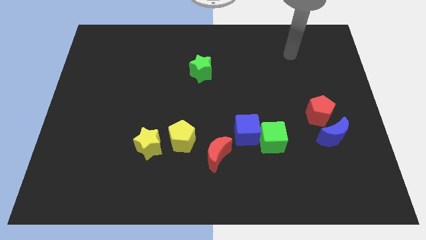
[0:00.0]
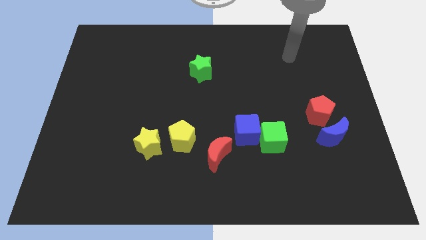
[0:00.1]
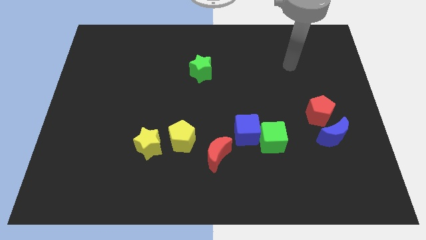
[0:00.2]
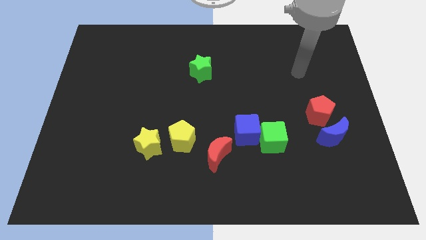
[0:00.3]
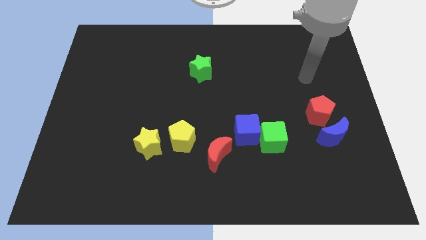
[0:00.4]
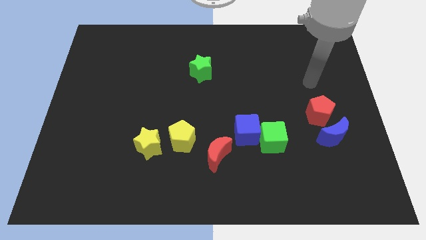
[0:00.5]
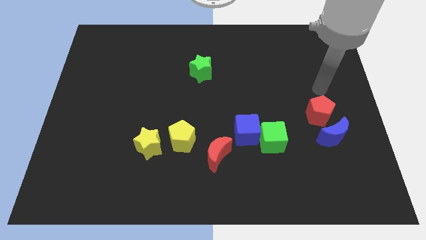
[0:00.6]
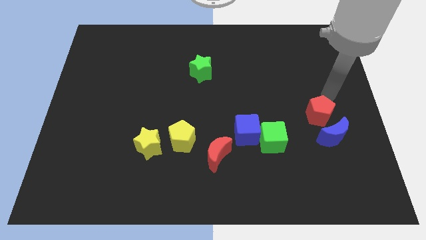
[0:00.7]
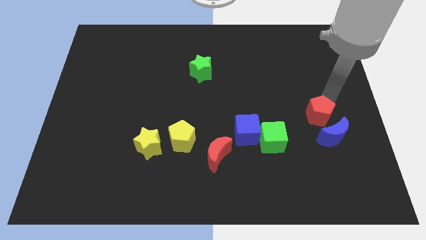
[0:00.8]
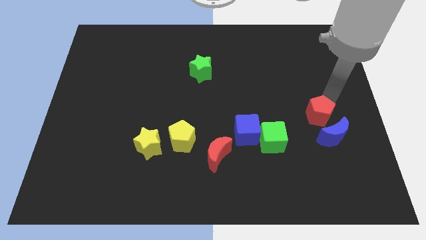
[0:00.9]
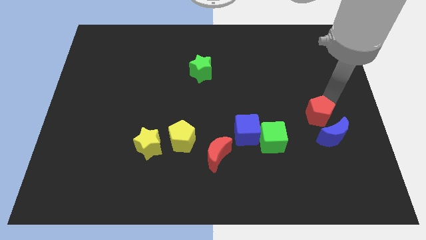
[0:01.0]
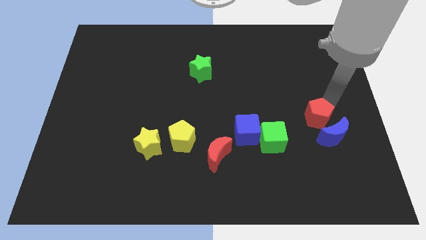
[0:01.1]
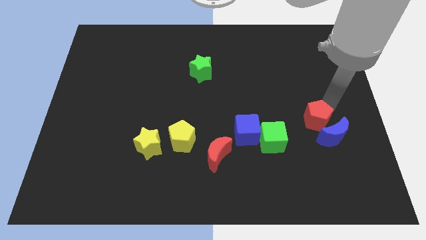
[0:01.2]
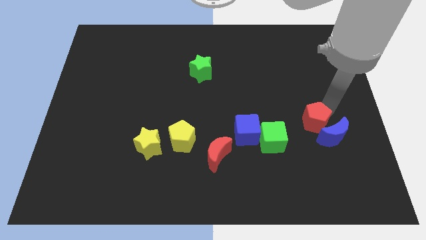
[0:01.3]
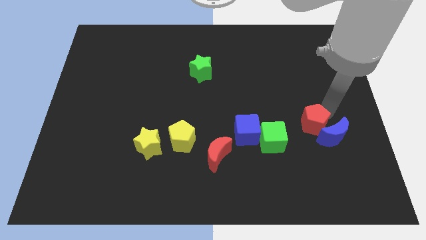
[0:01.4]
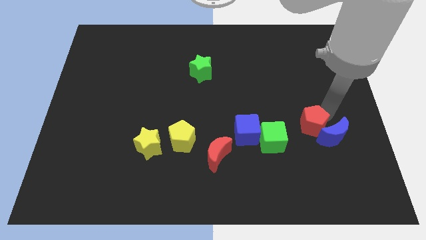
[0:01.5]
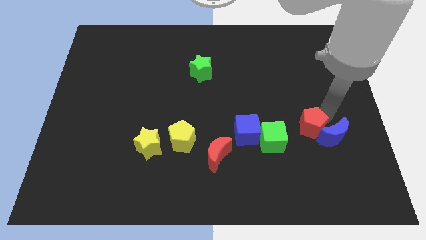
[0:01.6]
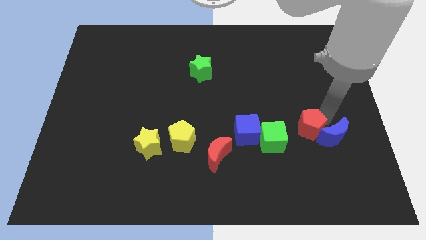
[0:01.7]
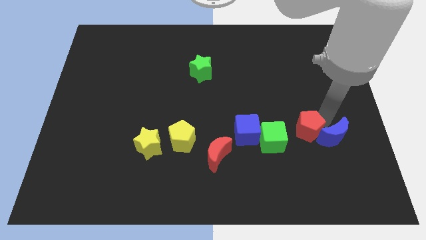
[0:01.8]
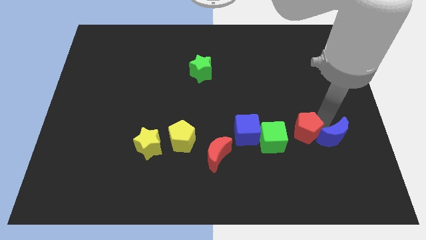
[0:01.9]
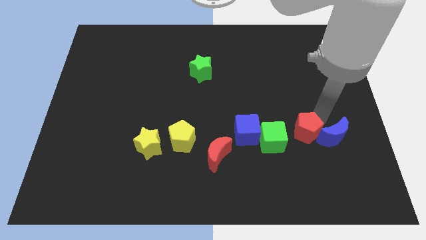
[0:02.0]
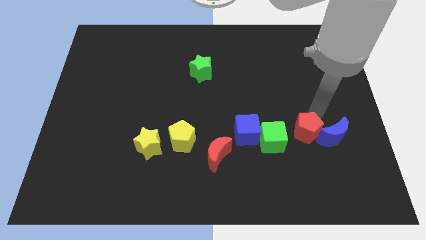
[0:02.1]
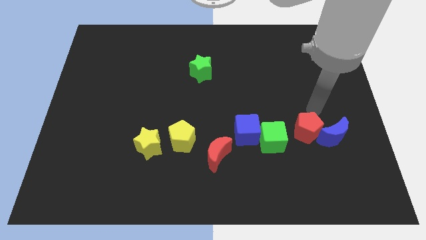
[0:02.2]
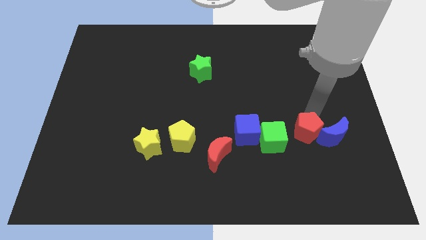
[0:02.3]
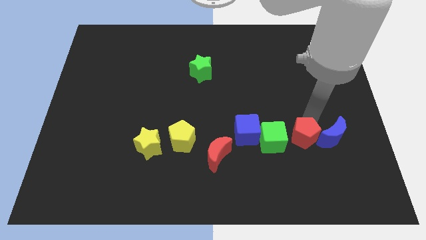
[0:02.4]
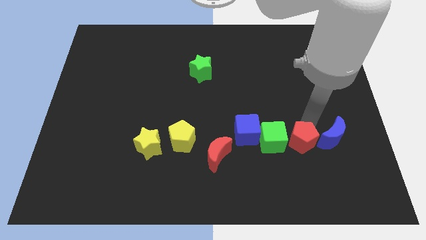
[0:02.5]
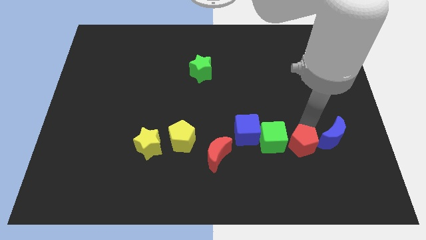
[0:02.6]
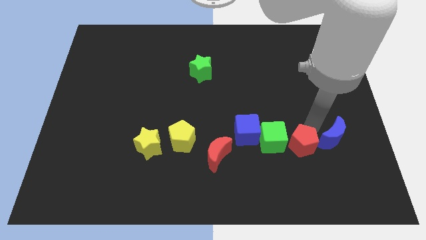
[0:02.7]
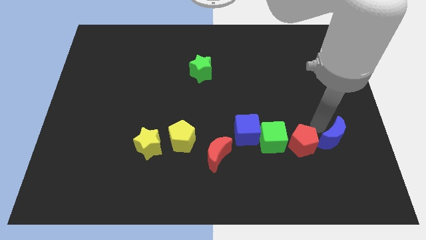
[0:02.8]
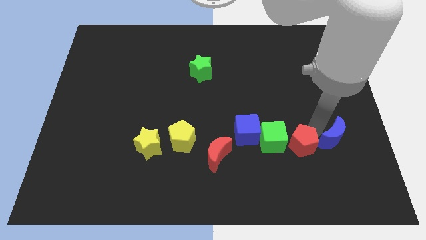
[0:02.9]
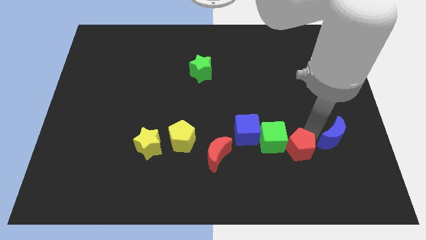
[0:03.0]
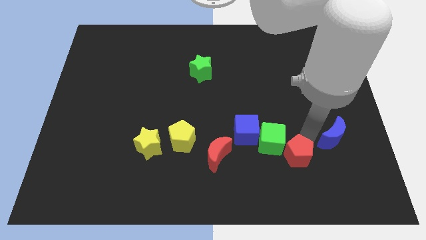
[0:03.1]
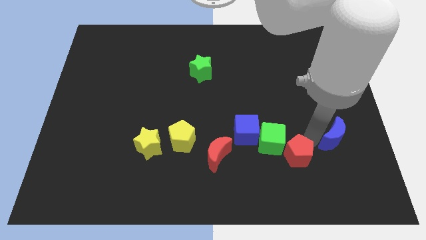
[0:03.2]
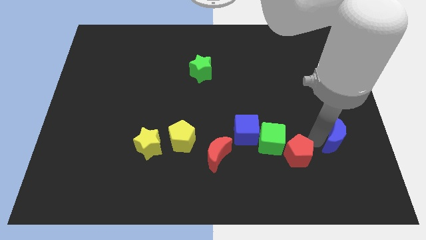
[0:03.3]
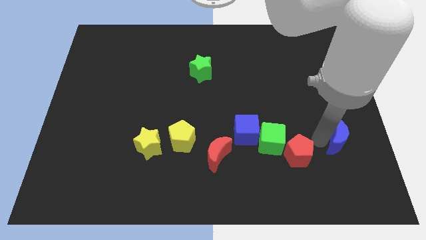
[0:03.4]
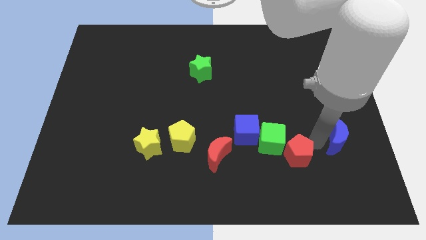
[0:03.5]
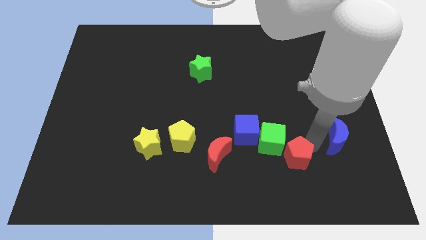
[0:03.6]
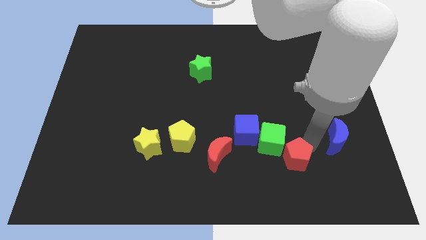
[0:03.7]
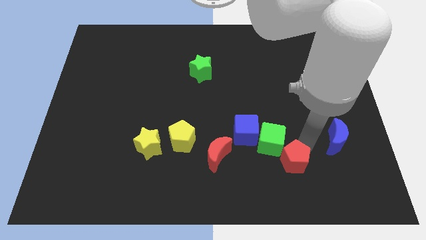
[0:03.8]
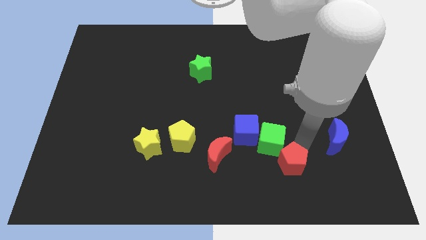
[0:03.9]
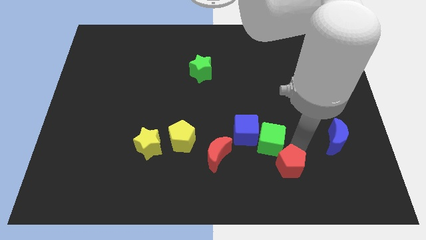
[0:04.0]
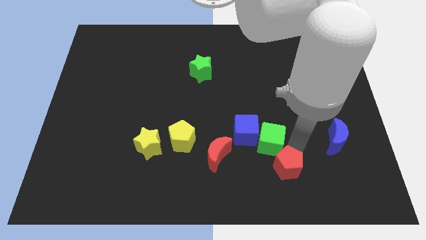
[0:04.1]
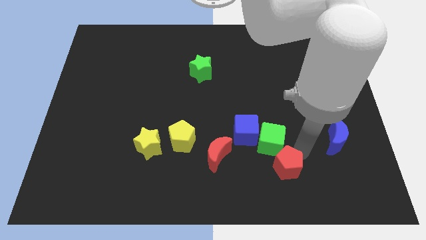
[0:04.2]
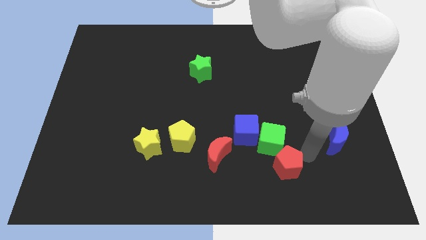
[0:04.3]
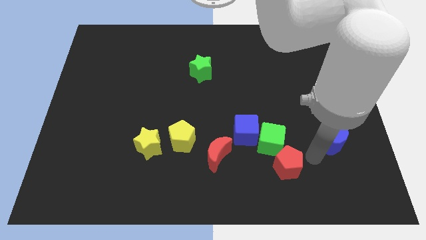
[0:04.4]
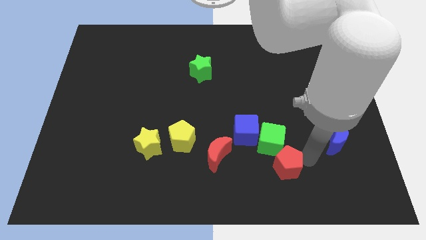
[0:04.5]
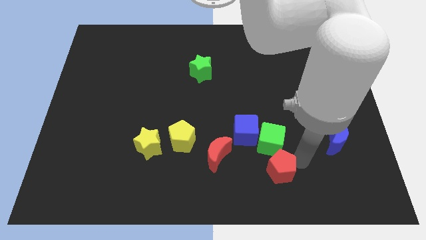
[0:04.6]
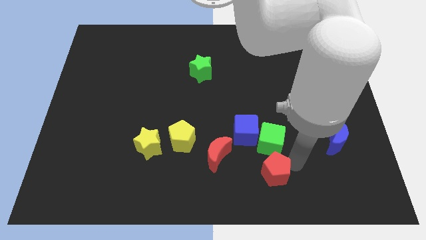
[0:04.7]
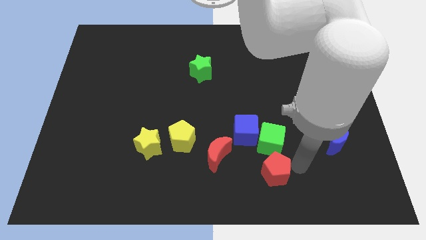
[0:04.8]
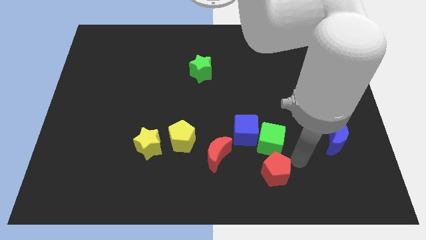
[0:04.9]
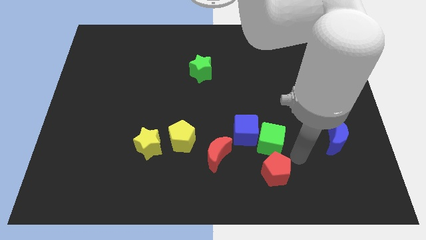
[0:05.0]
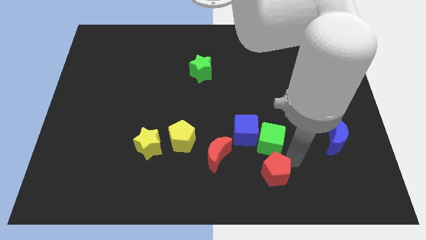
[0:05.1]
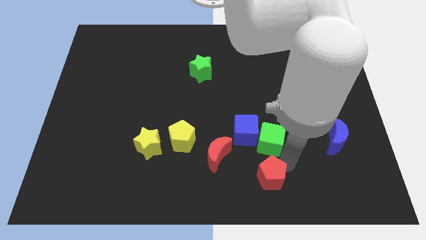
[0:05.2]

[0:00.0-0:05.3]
move the red pentagon to the bottom side
